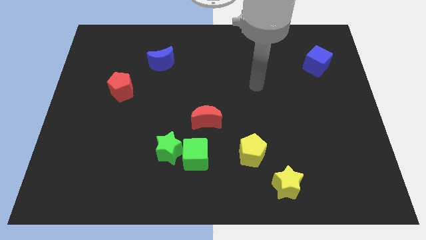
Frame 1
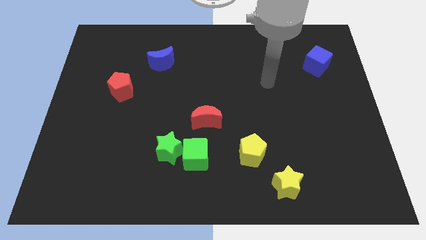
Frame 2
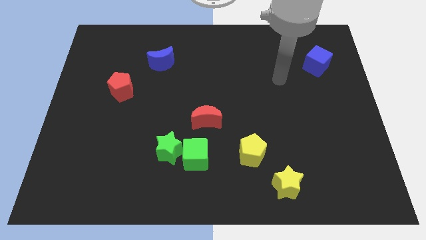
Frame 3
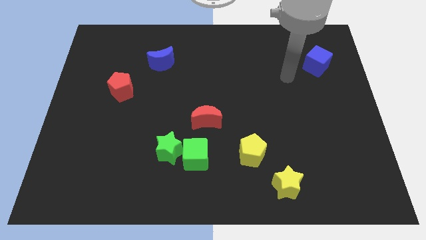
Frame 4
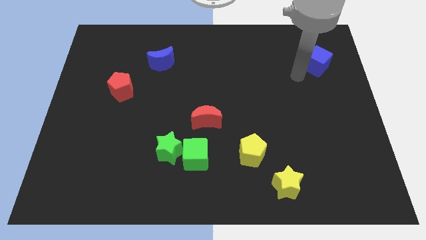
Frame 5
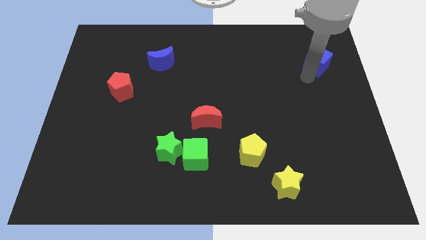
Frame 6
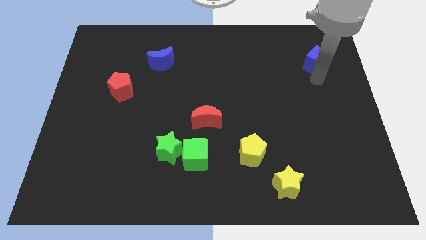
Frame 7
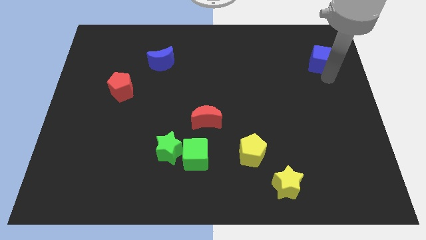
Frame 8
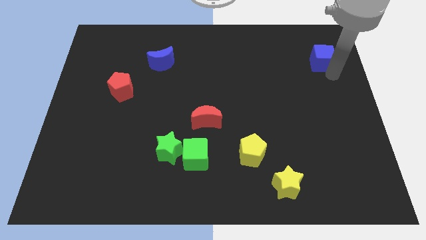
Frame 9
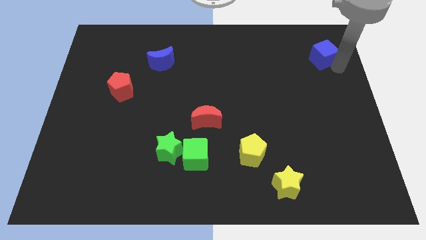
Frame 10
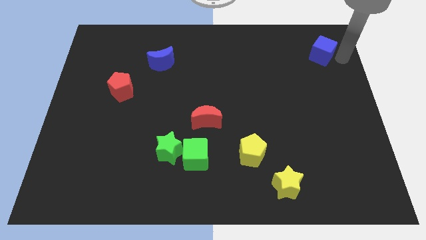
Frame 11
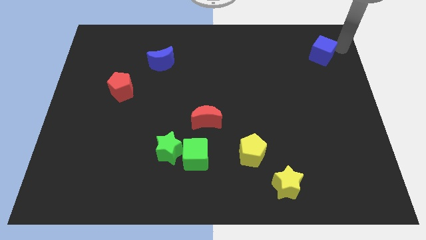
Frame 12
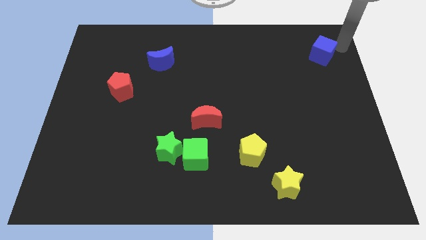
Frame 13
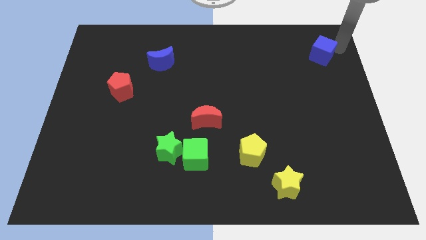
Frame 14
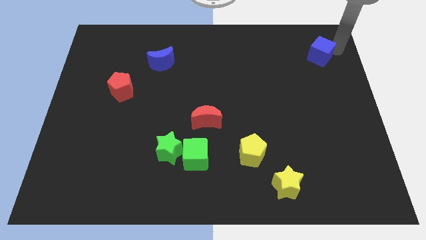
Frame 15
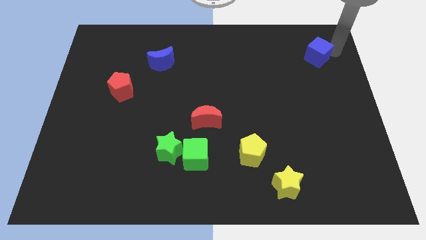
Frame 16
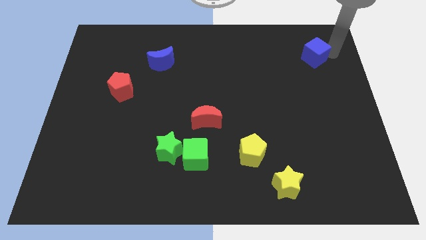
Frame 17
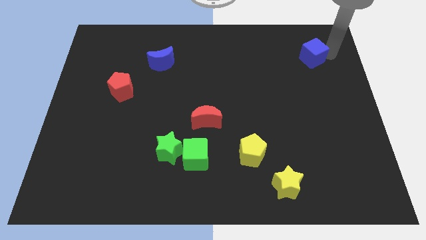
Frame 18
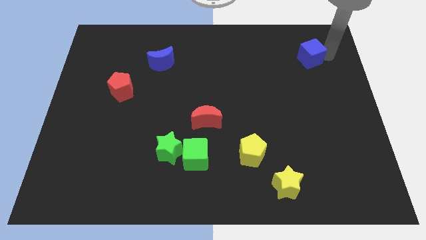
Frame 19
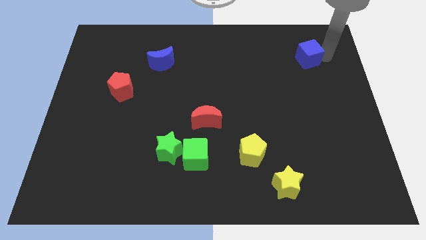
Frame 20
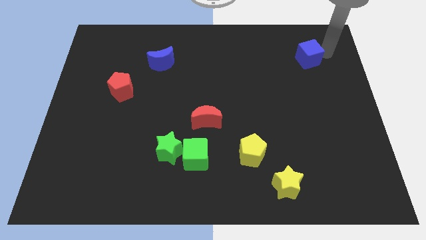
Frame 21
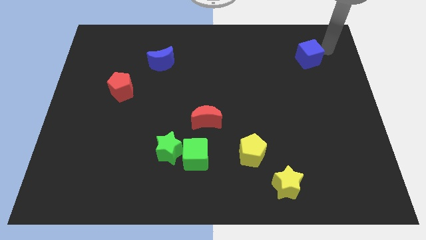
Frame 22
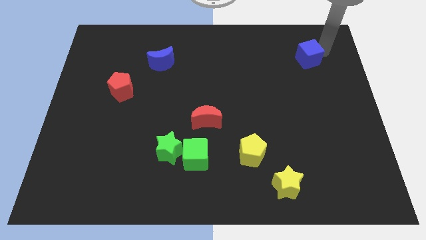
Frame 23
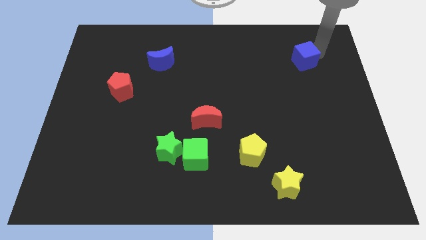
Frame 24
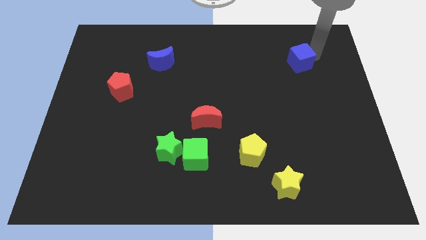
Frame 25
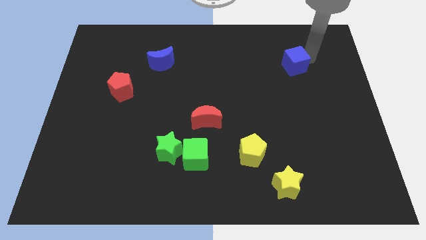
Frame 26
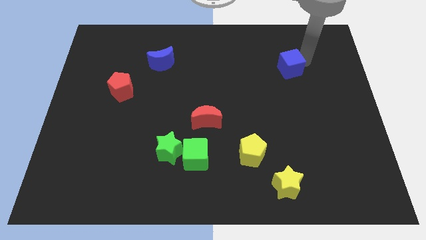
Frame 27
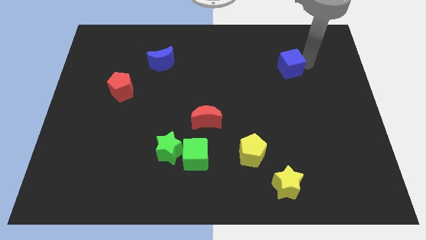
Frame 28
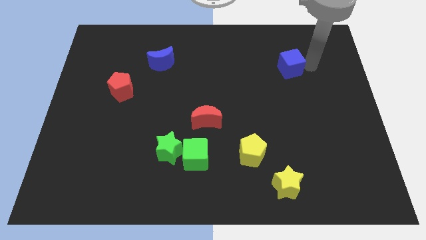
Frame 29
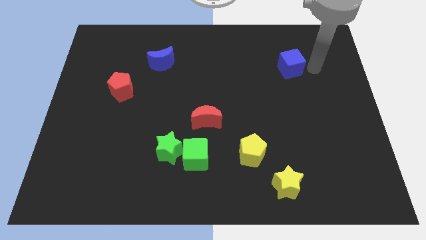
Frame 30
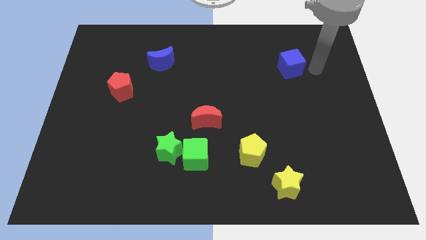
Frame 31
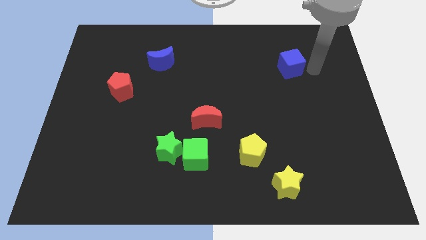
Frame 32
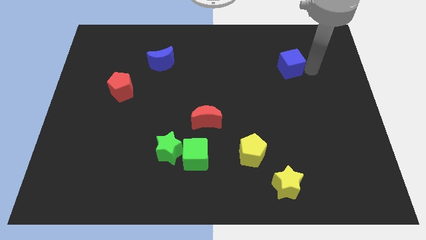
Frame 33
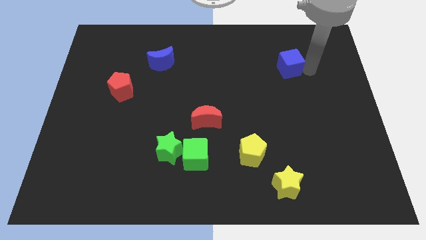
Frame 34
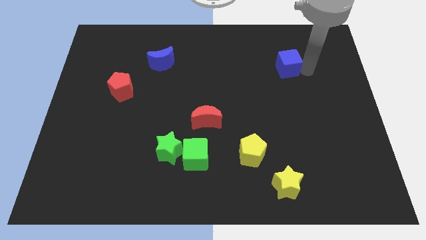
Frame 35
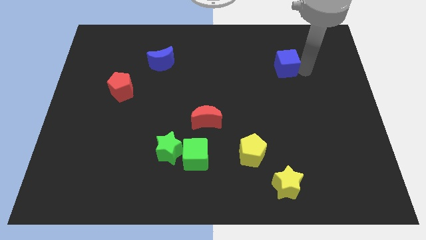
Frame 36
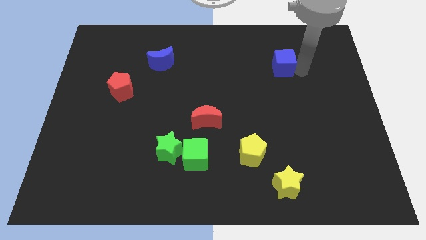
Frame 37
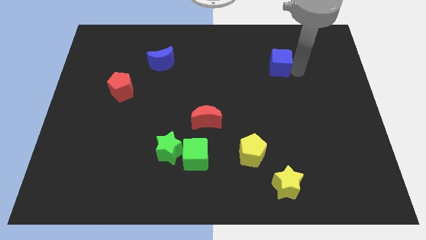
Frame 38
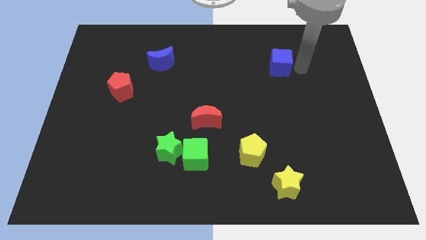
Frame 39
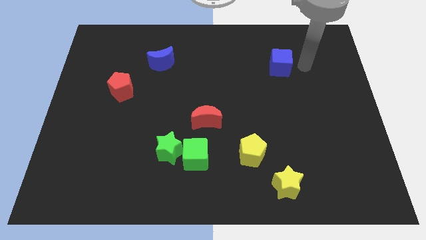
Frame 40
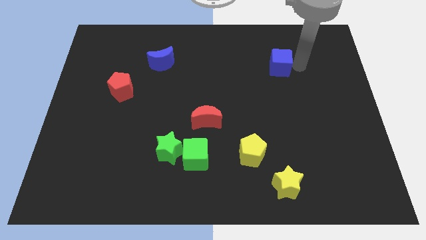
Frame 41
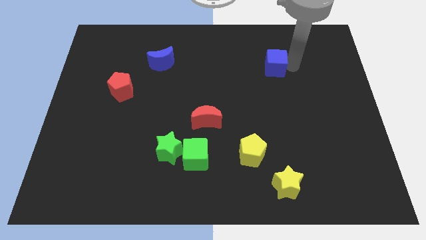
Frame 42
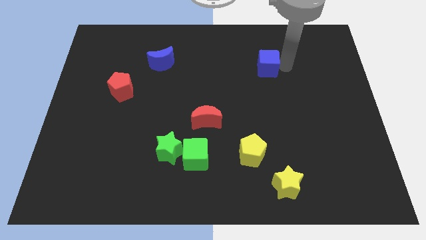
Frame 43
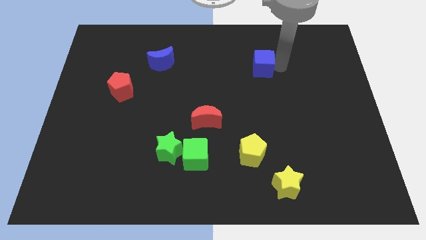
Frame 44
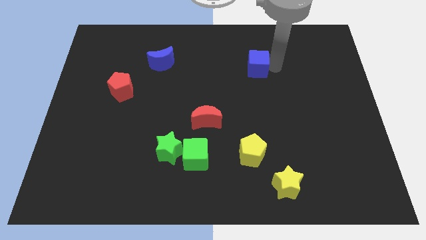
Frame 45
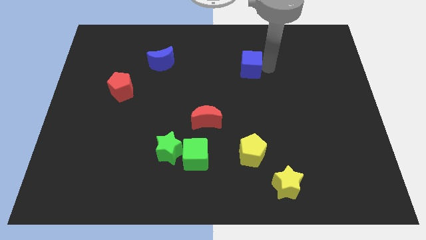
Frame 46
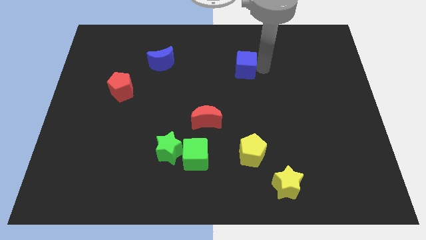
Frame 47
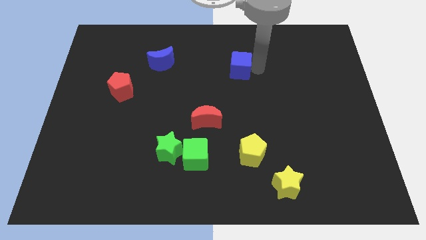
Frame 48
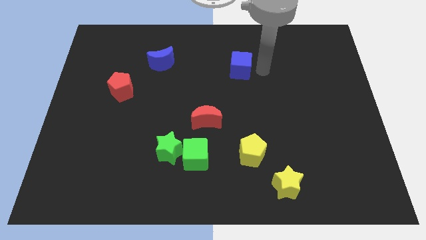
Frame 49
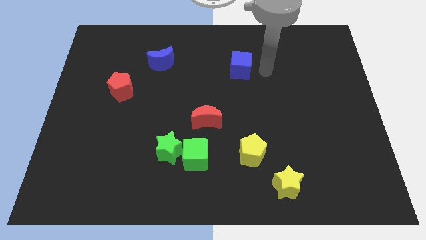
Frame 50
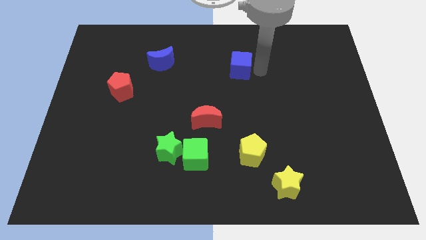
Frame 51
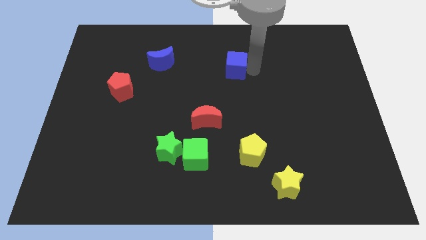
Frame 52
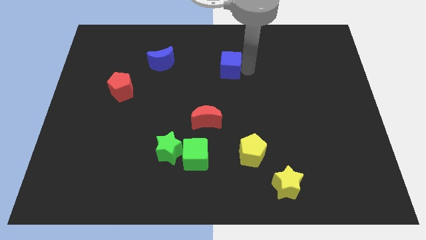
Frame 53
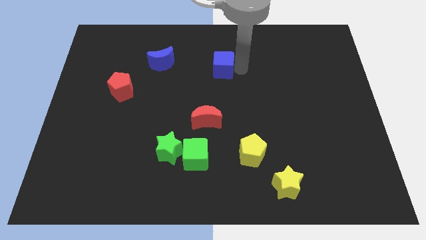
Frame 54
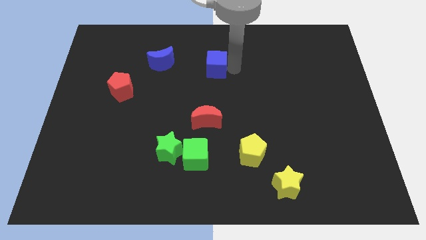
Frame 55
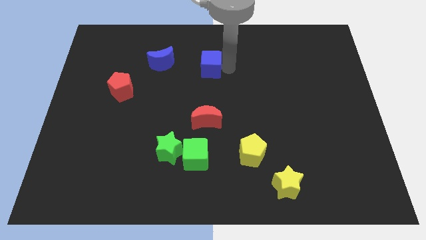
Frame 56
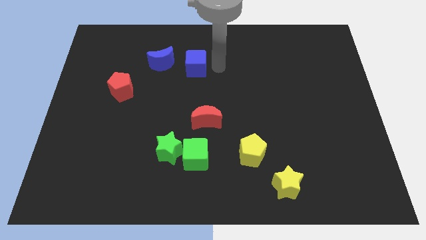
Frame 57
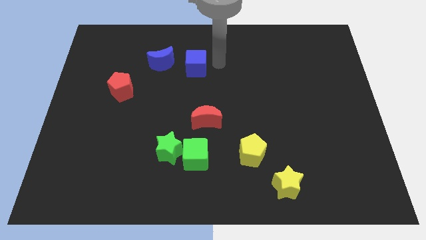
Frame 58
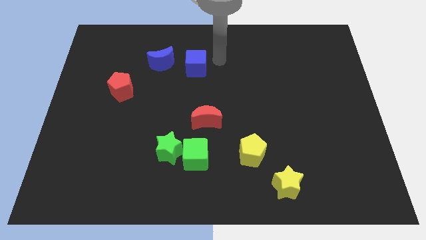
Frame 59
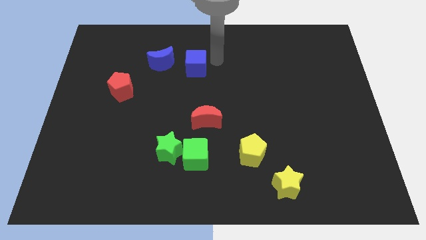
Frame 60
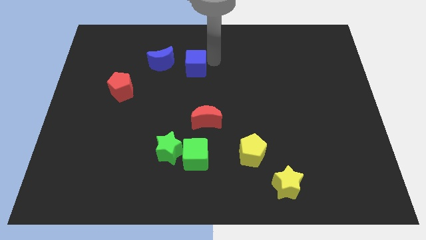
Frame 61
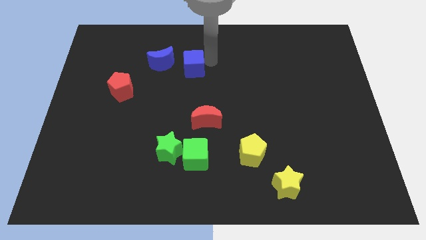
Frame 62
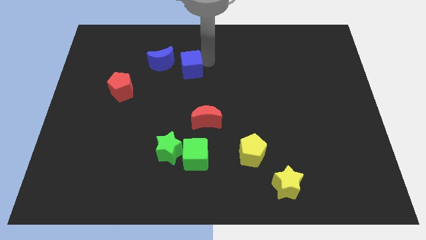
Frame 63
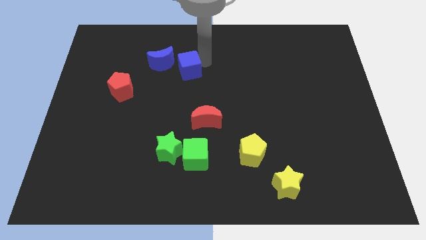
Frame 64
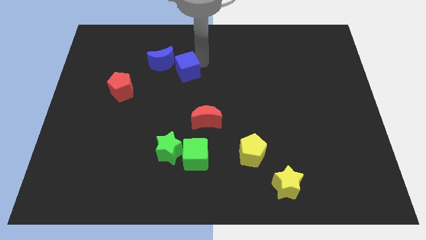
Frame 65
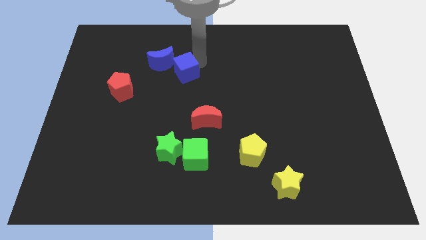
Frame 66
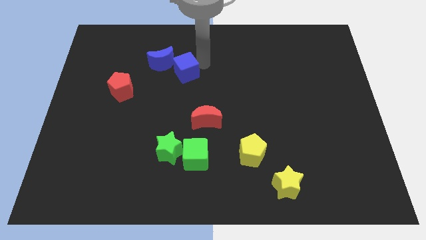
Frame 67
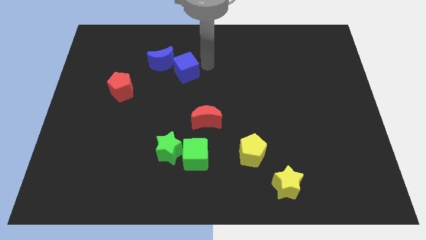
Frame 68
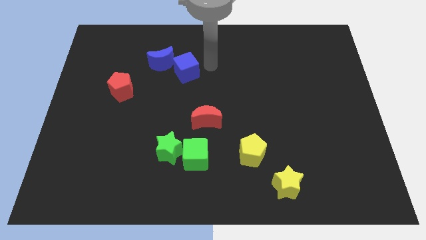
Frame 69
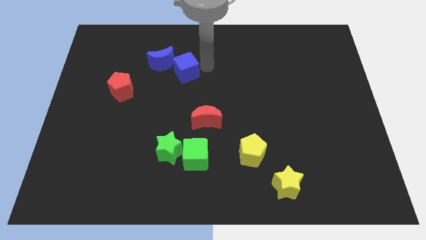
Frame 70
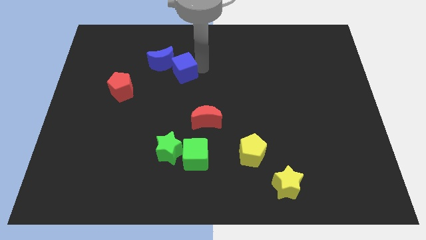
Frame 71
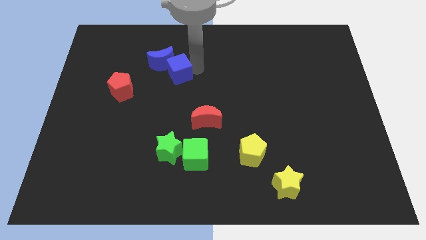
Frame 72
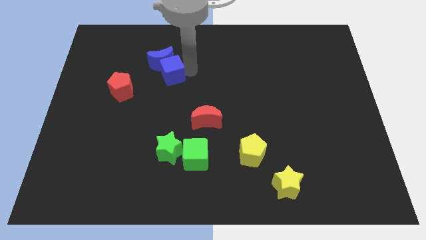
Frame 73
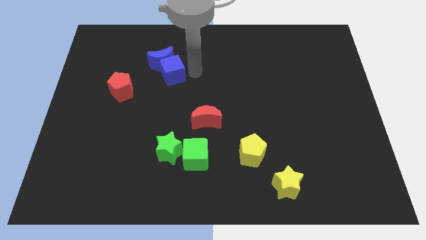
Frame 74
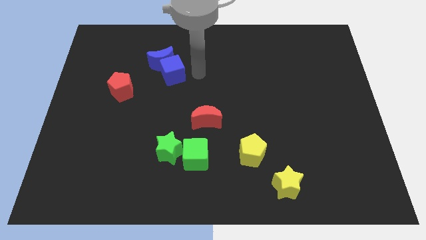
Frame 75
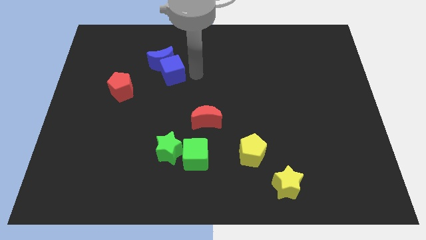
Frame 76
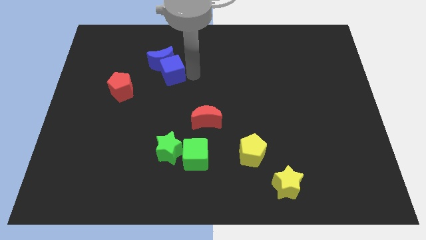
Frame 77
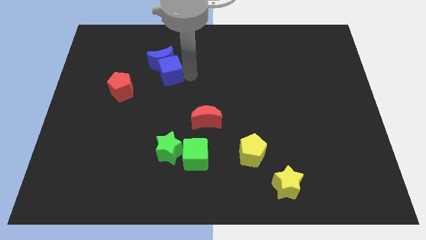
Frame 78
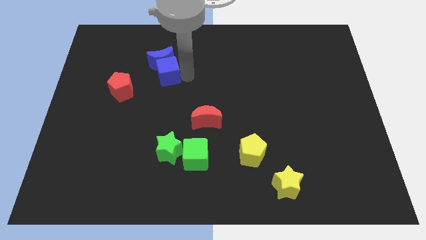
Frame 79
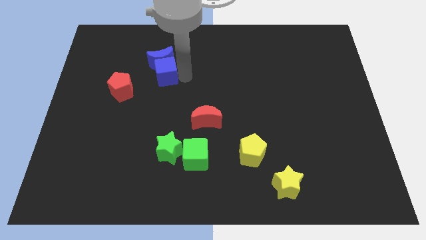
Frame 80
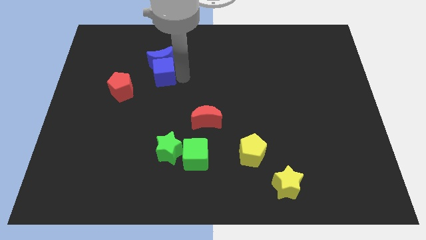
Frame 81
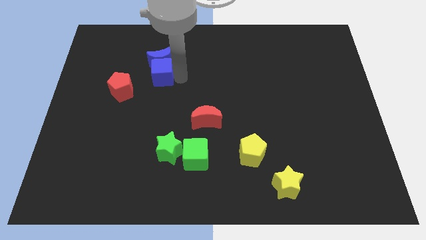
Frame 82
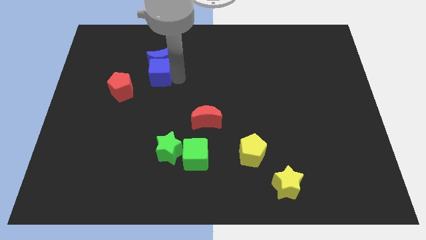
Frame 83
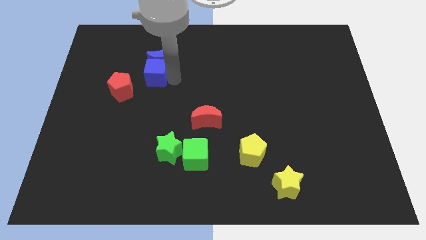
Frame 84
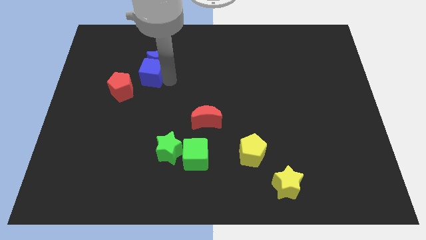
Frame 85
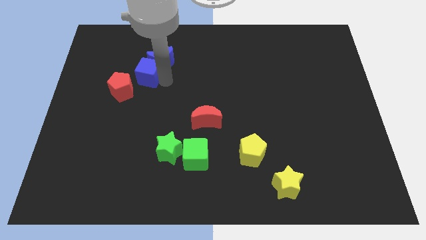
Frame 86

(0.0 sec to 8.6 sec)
slide the blue cube to the left side of the blue moon
